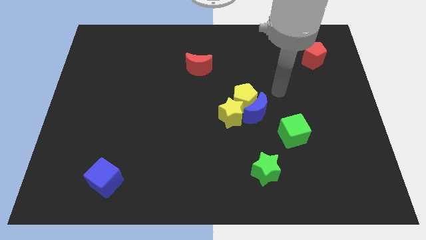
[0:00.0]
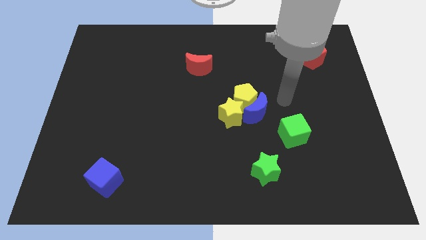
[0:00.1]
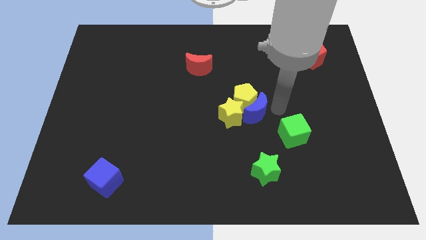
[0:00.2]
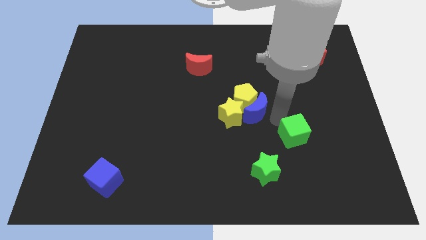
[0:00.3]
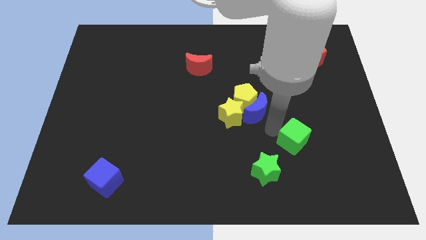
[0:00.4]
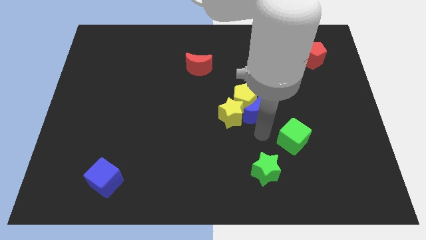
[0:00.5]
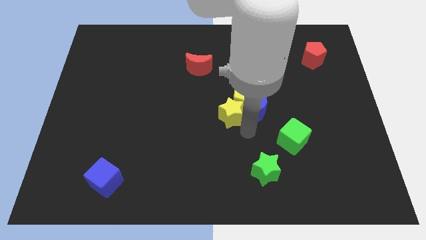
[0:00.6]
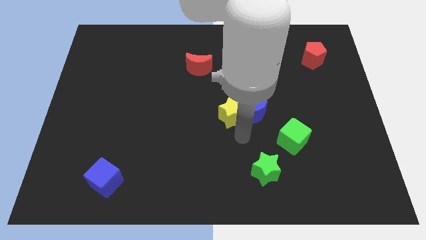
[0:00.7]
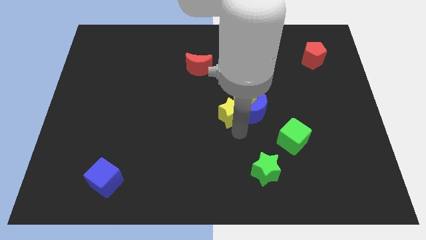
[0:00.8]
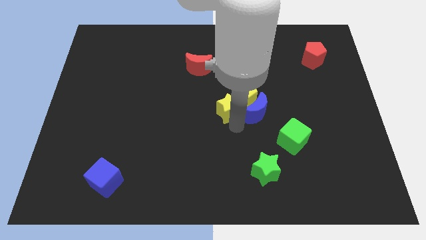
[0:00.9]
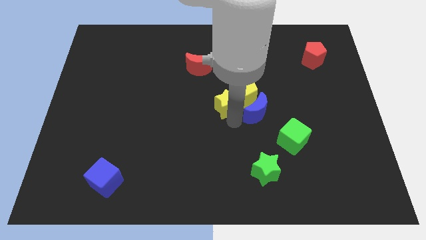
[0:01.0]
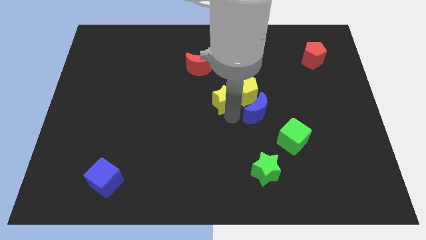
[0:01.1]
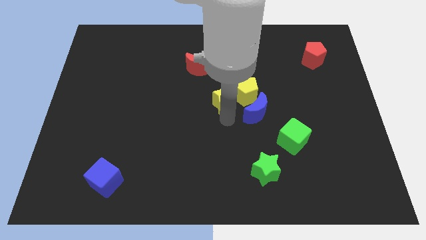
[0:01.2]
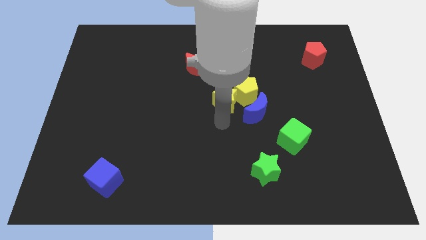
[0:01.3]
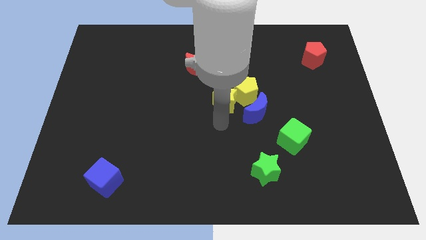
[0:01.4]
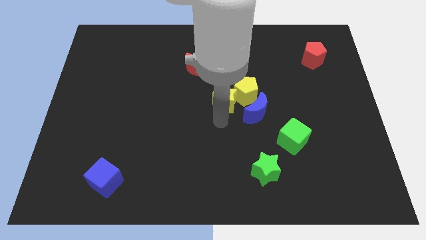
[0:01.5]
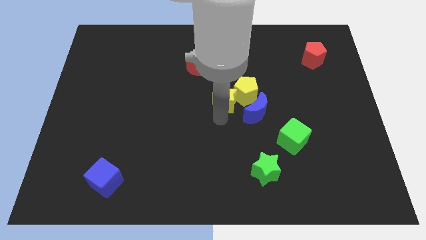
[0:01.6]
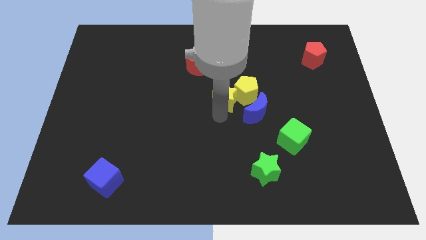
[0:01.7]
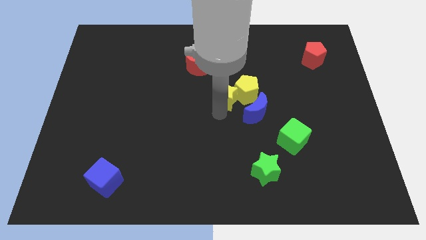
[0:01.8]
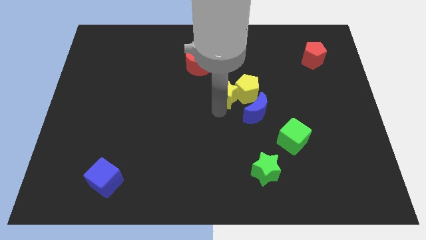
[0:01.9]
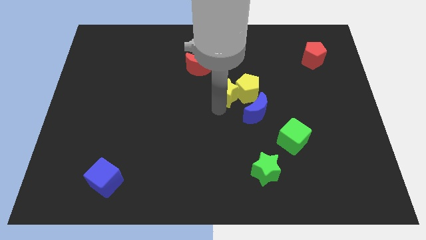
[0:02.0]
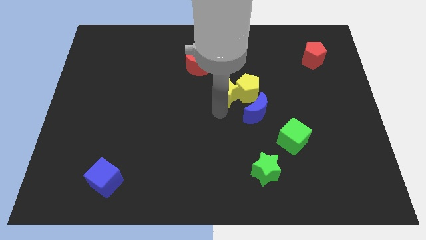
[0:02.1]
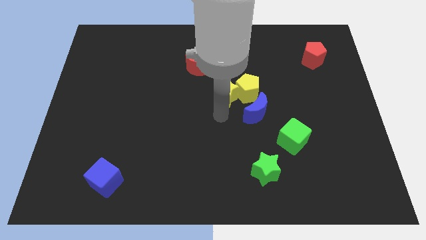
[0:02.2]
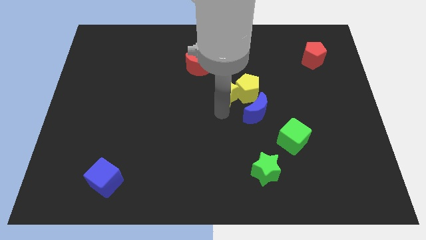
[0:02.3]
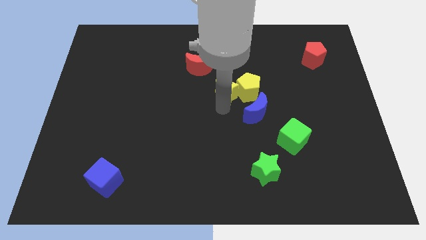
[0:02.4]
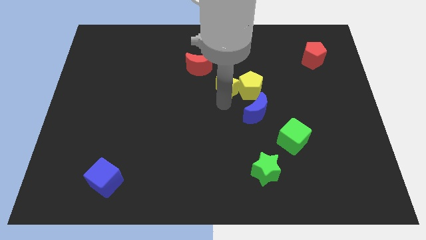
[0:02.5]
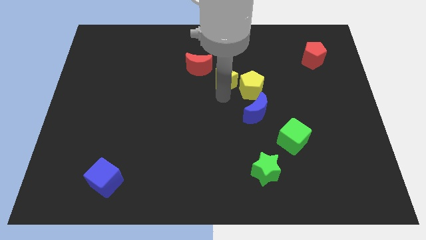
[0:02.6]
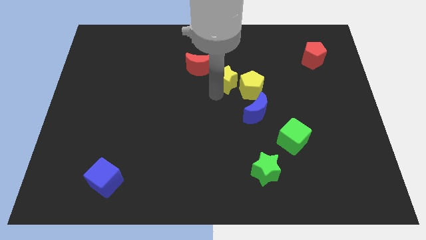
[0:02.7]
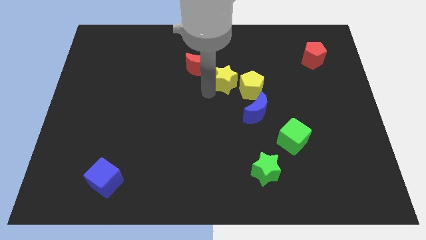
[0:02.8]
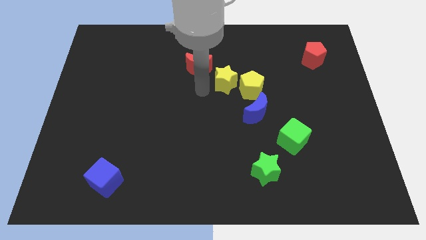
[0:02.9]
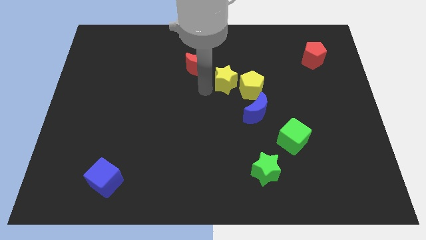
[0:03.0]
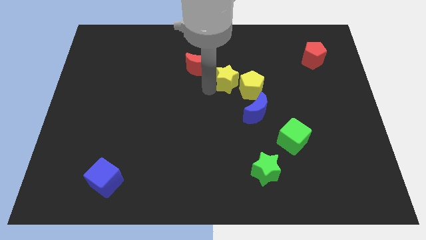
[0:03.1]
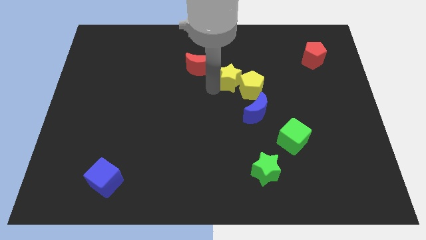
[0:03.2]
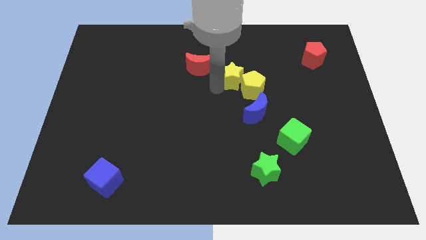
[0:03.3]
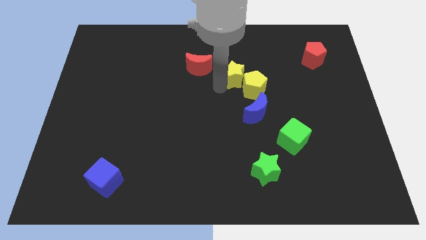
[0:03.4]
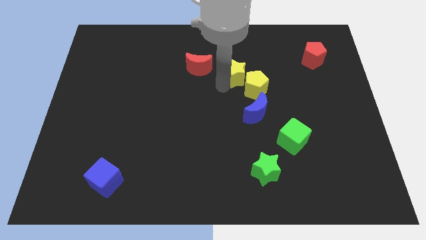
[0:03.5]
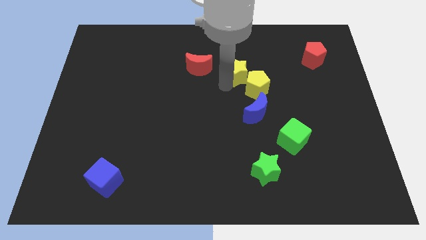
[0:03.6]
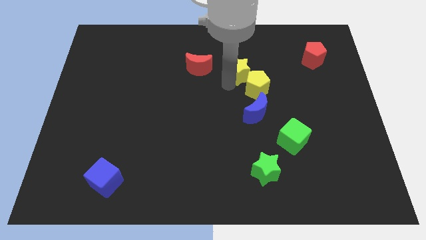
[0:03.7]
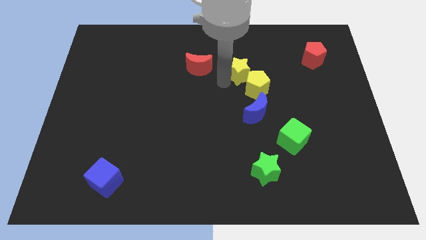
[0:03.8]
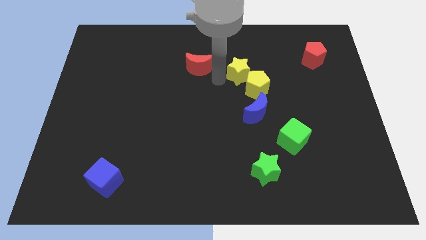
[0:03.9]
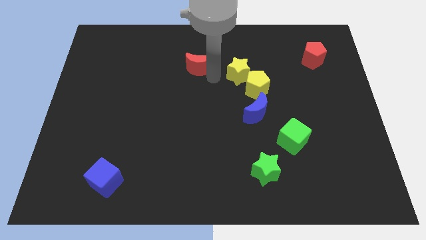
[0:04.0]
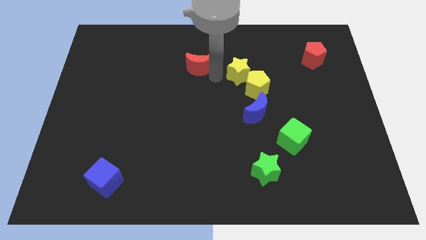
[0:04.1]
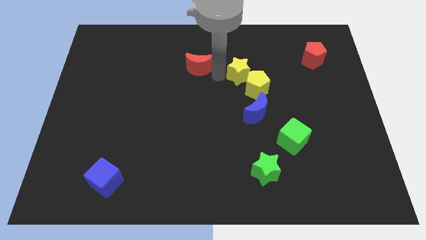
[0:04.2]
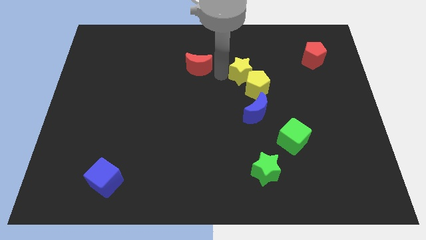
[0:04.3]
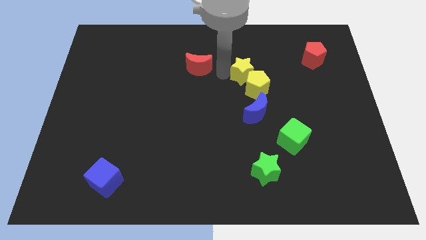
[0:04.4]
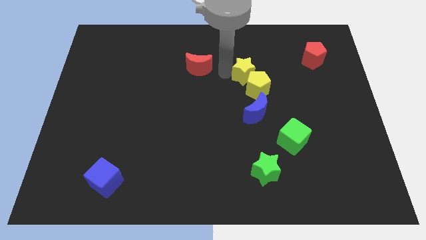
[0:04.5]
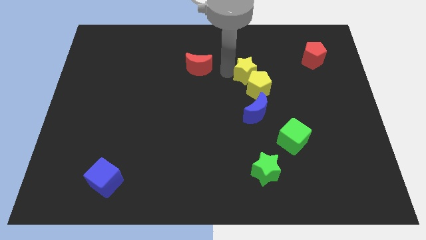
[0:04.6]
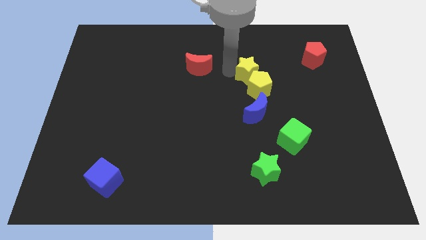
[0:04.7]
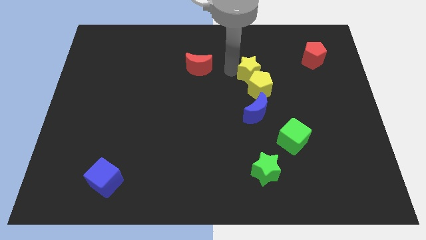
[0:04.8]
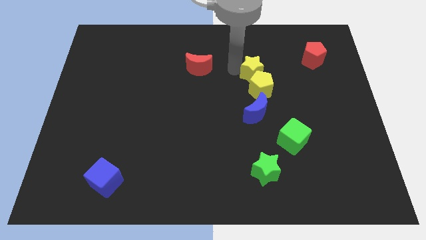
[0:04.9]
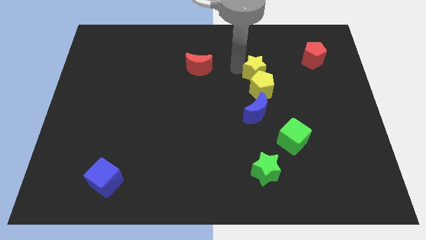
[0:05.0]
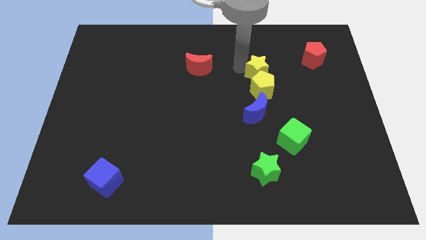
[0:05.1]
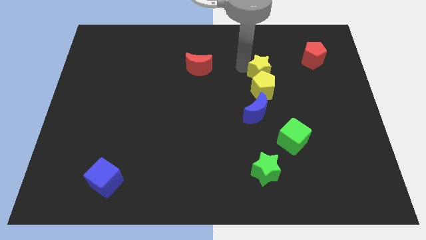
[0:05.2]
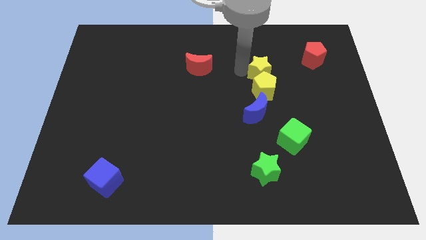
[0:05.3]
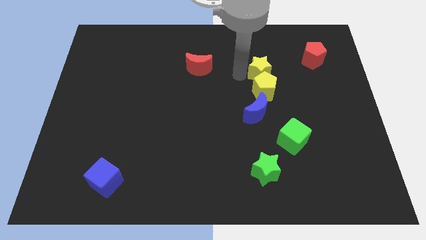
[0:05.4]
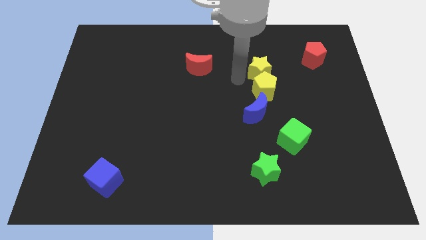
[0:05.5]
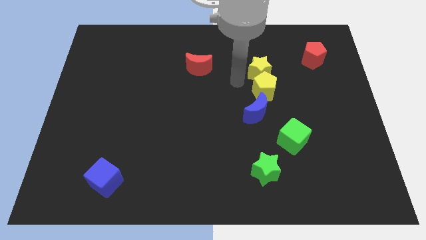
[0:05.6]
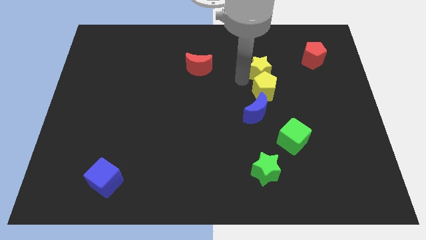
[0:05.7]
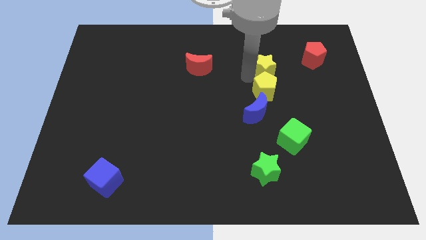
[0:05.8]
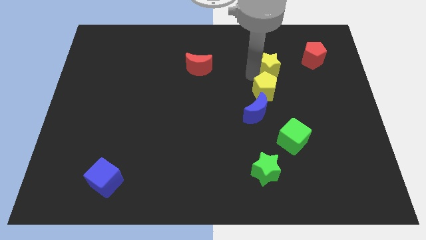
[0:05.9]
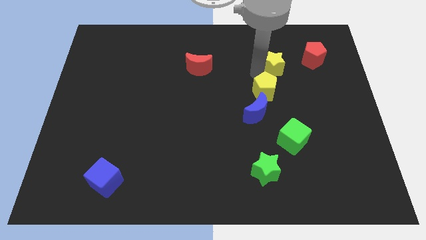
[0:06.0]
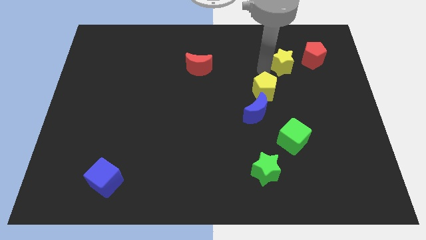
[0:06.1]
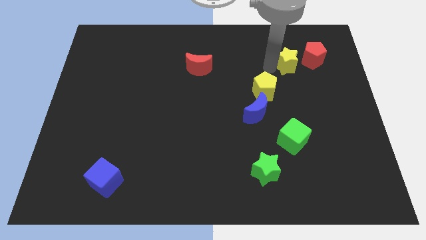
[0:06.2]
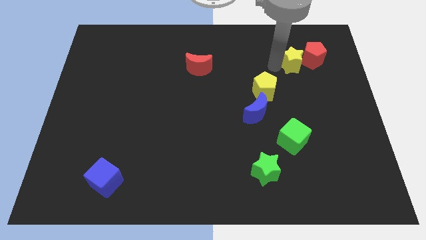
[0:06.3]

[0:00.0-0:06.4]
slide the yellow star to the red pentagon

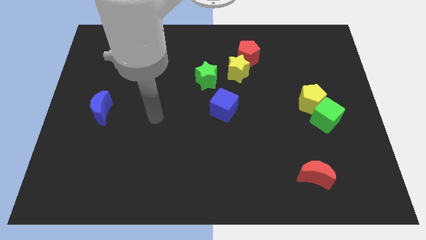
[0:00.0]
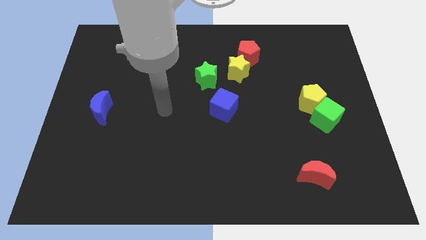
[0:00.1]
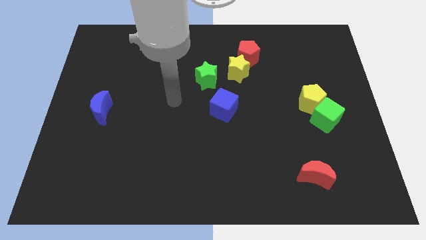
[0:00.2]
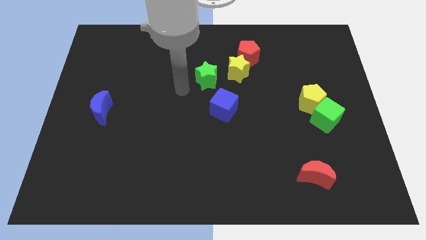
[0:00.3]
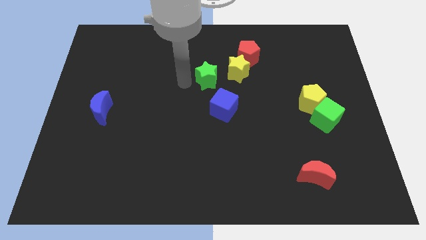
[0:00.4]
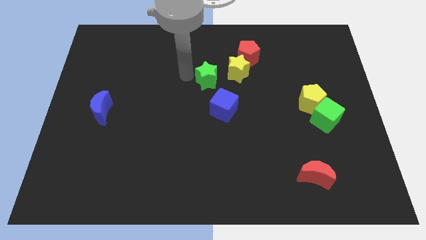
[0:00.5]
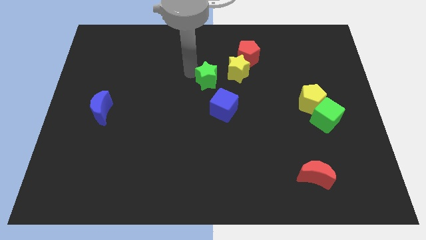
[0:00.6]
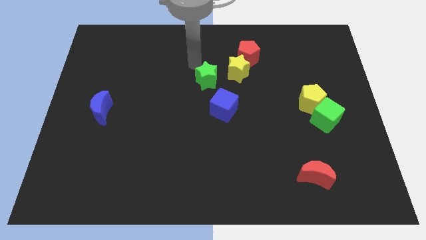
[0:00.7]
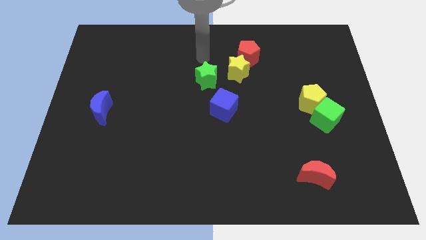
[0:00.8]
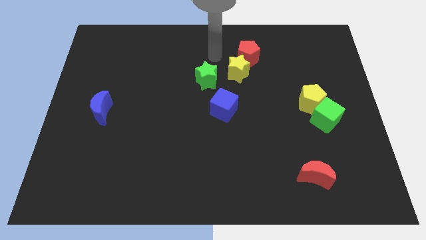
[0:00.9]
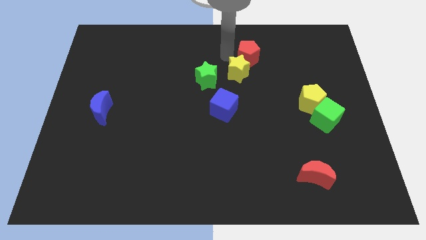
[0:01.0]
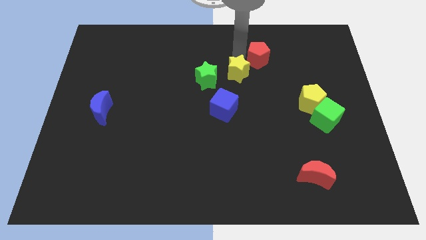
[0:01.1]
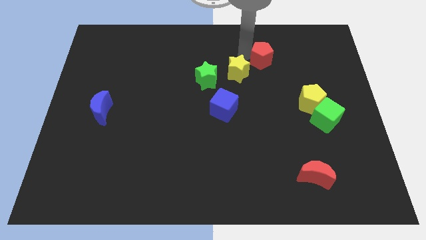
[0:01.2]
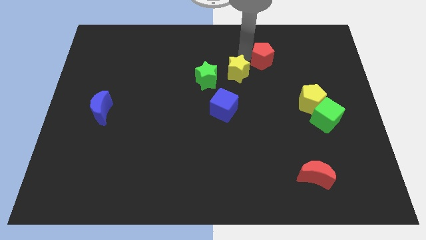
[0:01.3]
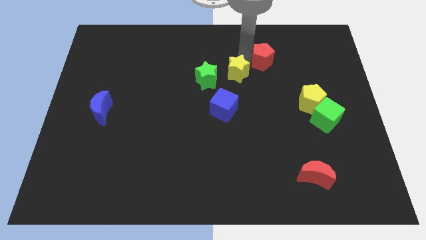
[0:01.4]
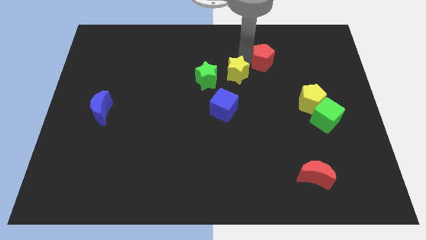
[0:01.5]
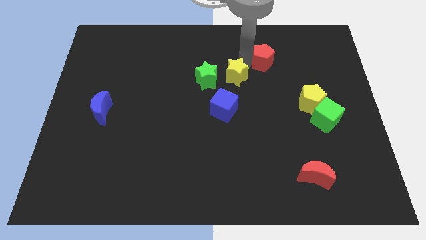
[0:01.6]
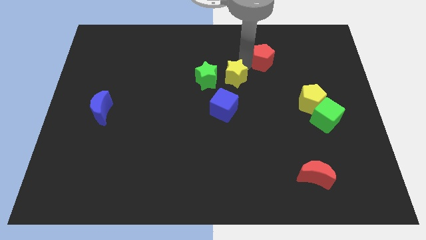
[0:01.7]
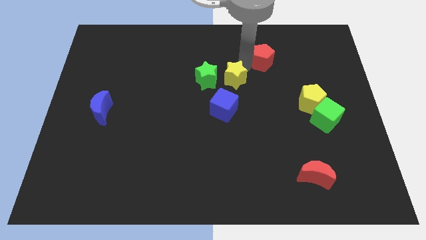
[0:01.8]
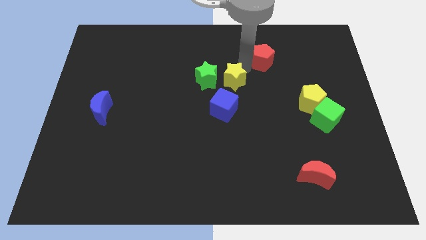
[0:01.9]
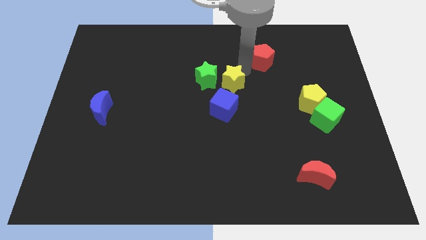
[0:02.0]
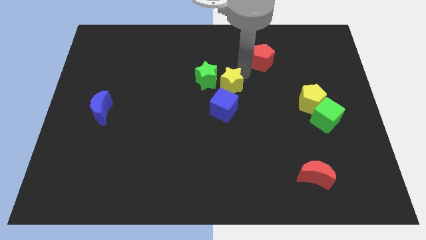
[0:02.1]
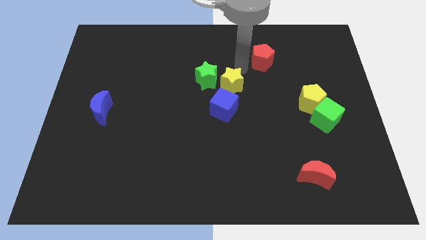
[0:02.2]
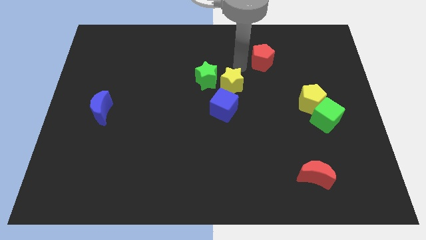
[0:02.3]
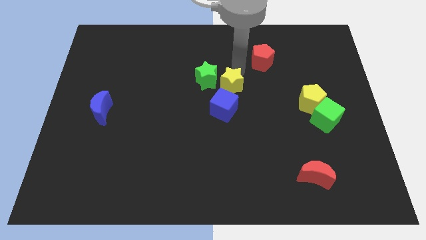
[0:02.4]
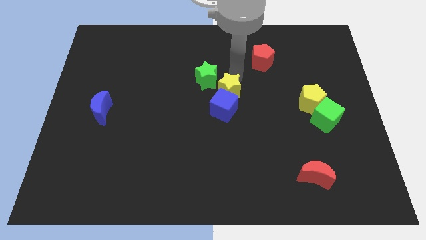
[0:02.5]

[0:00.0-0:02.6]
slide the yellow star close to the blue cube
